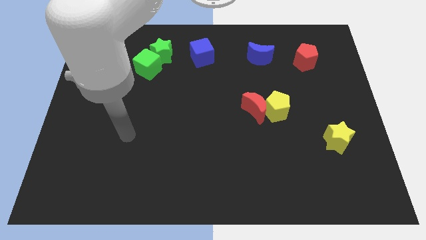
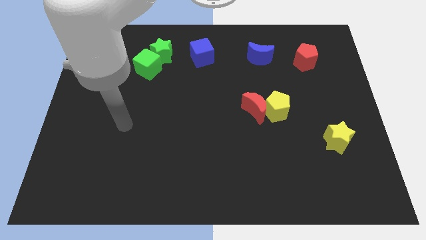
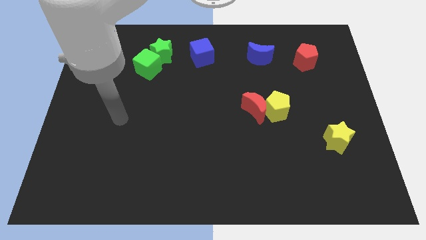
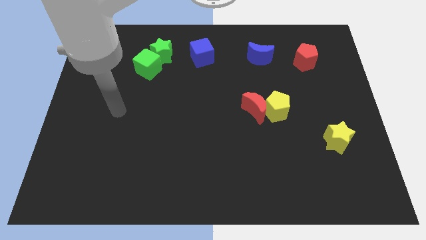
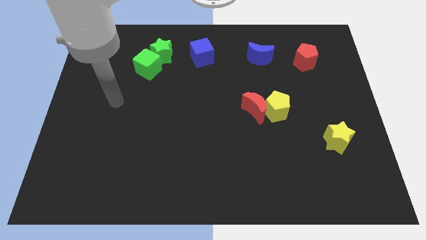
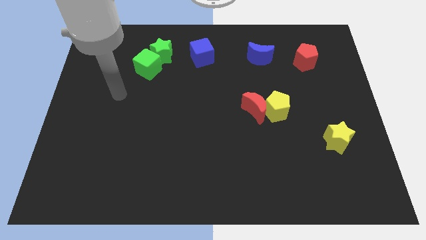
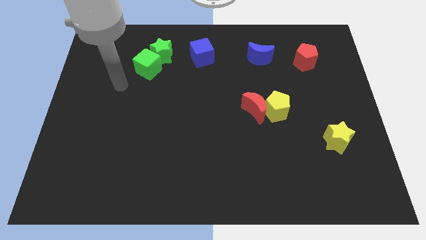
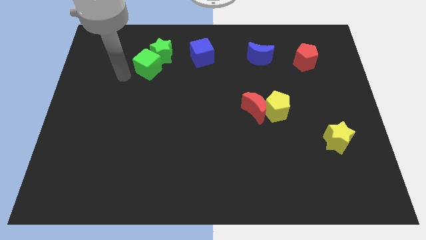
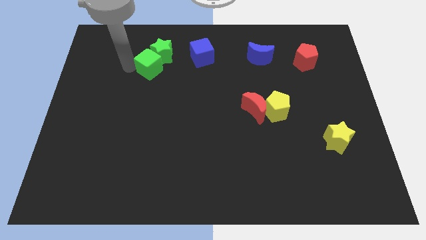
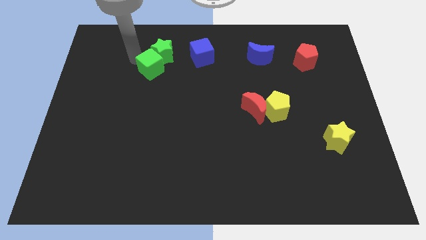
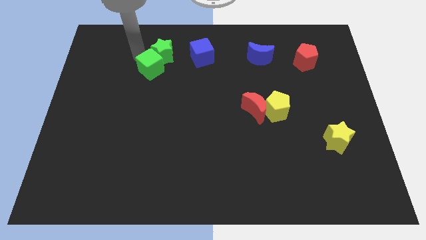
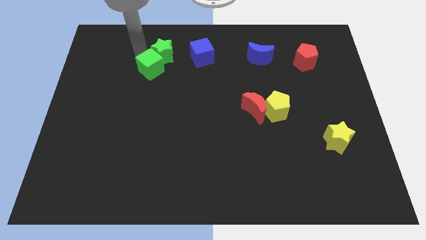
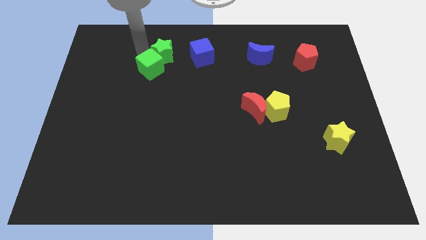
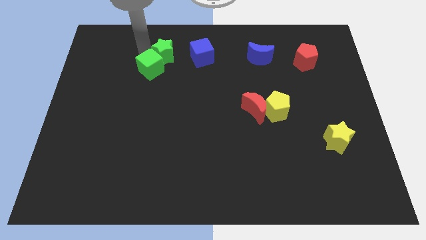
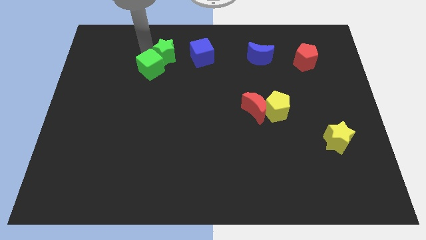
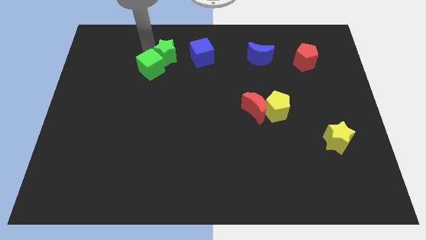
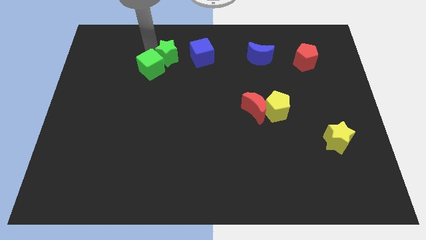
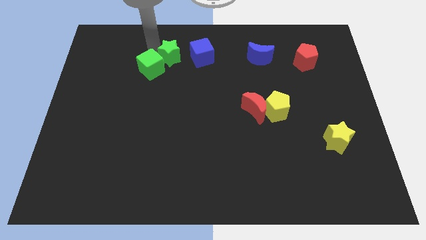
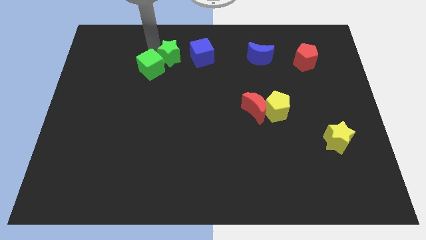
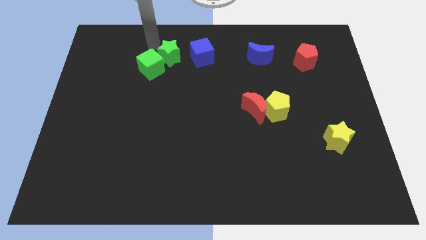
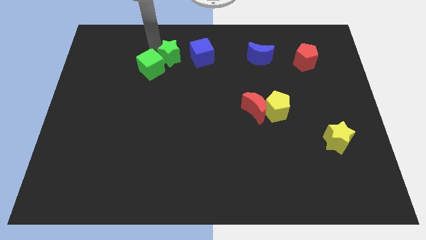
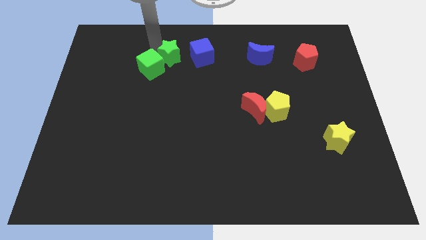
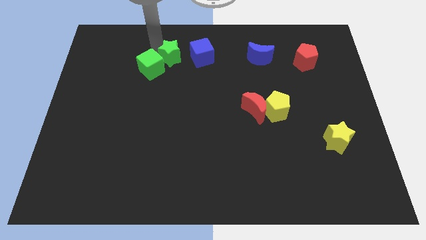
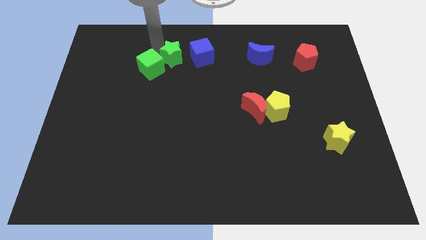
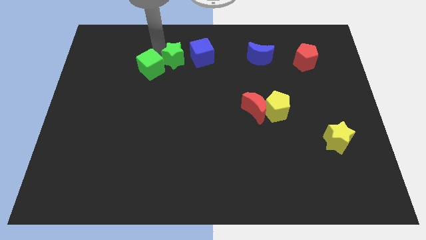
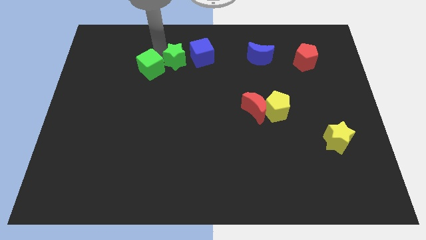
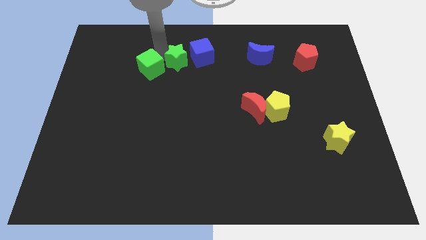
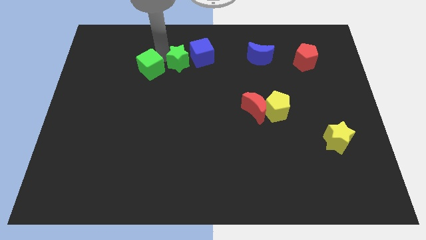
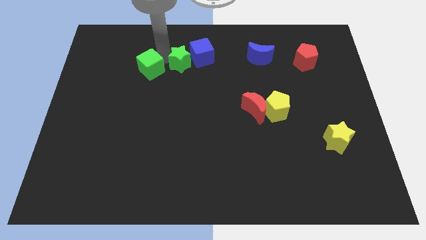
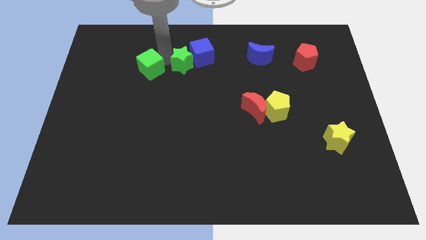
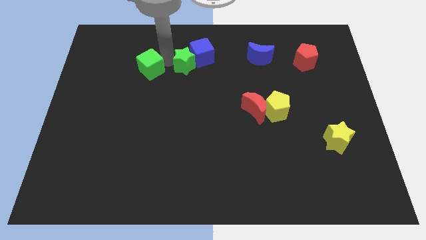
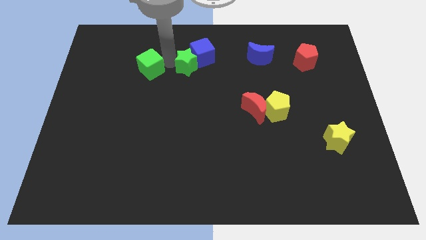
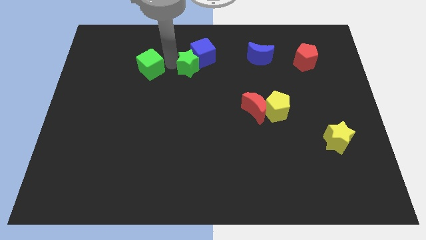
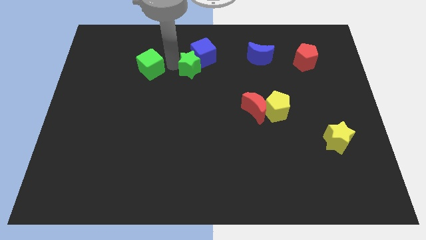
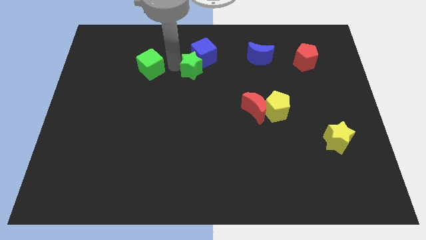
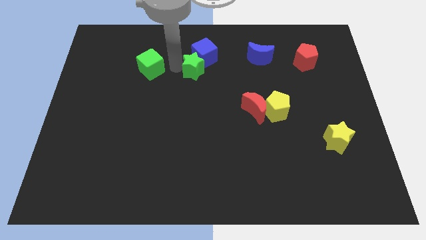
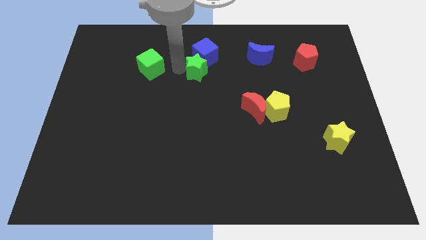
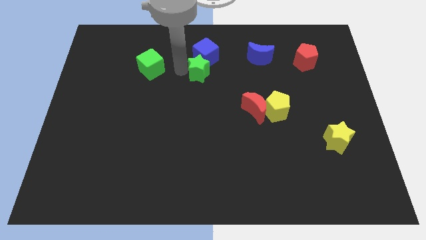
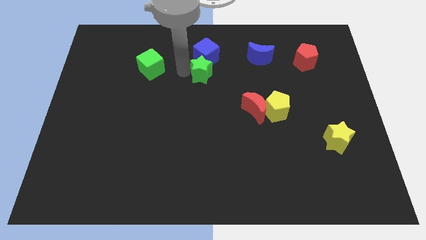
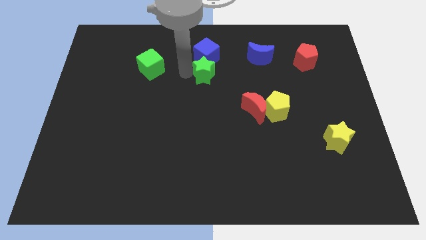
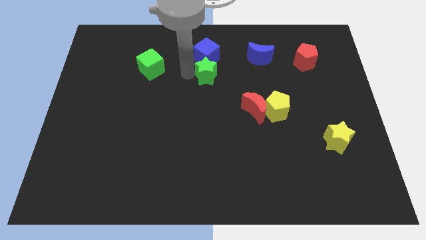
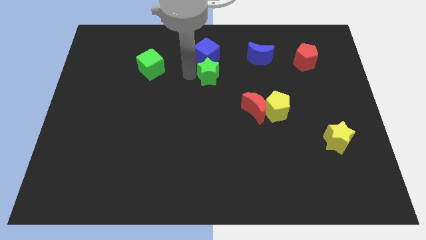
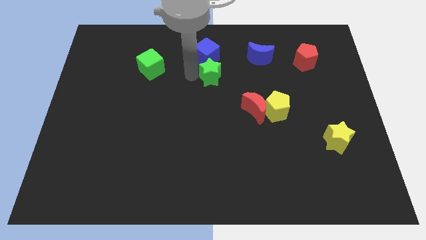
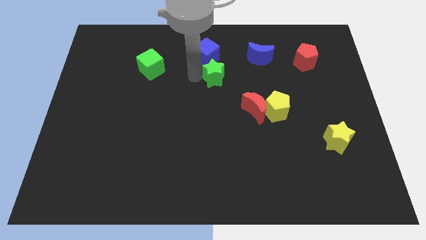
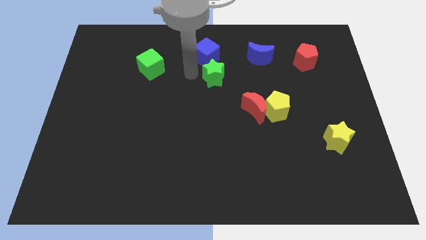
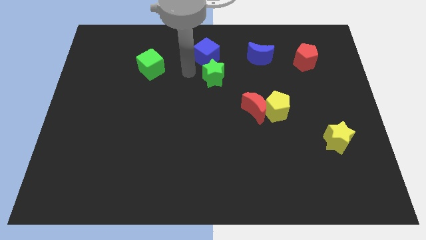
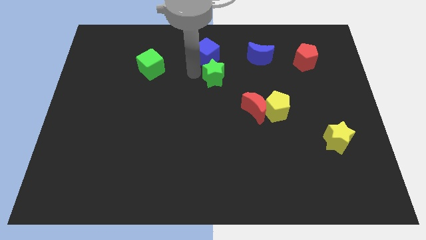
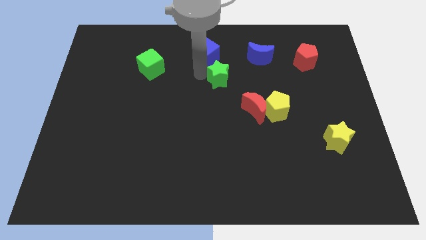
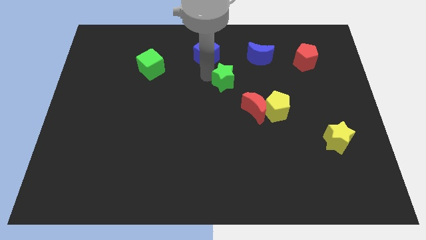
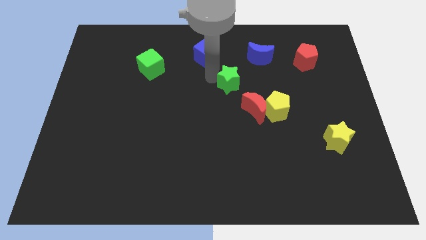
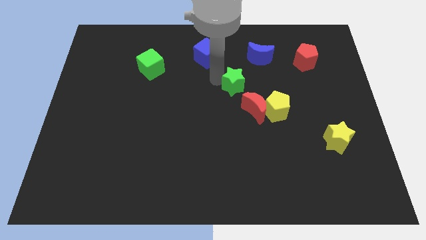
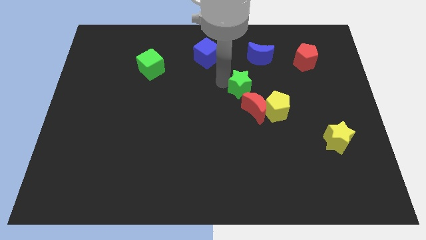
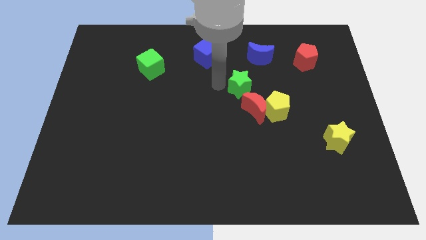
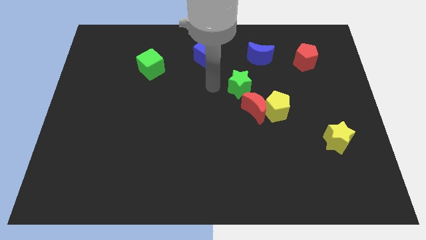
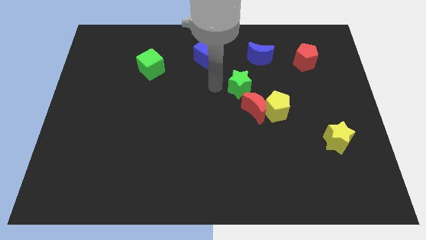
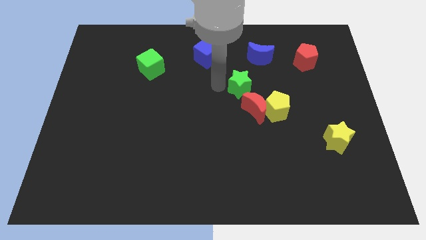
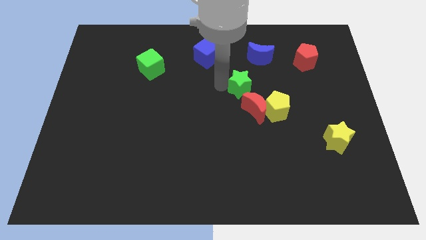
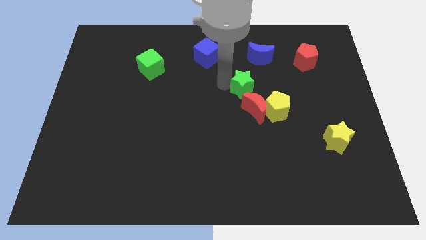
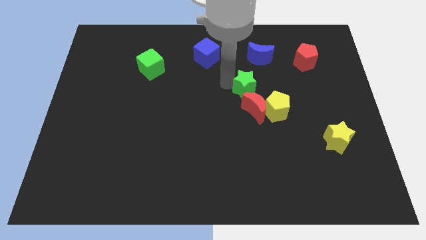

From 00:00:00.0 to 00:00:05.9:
push the green star to the bottom side of the blue moon

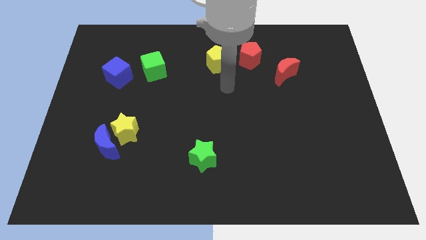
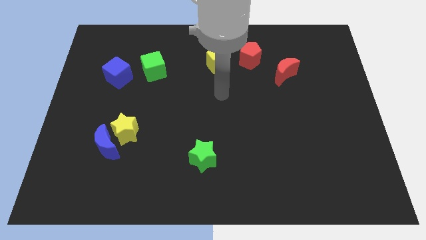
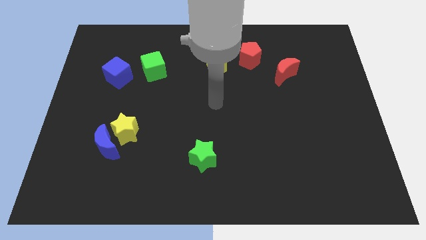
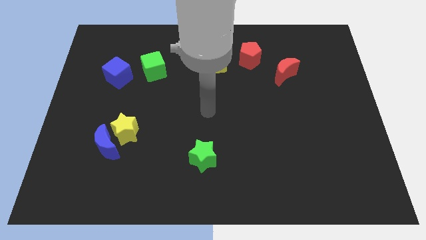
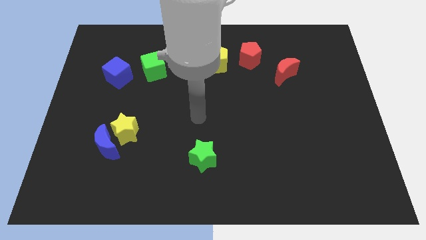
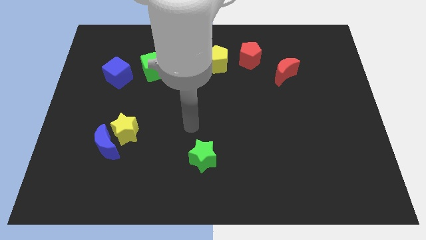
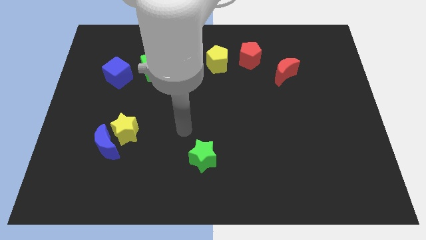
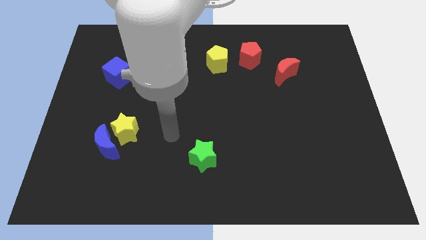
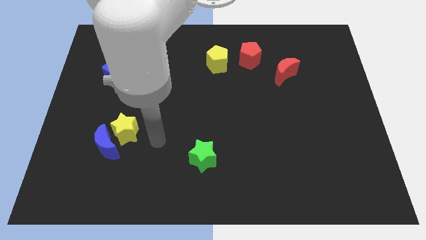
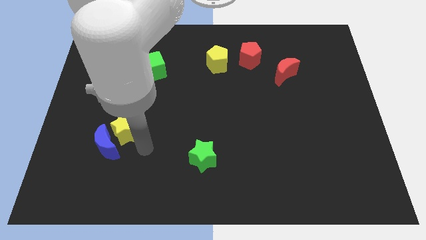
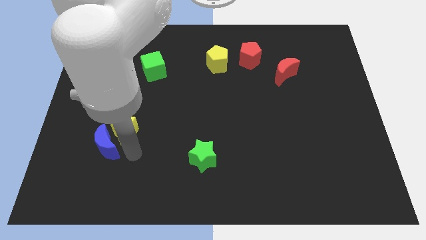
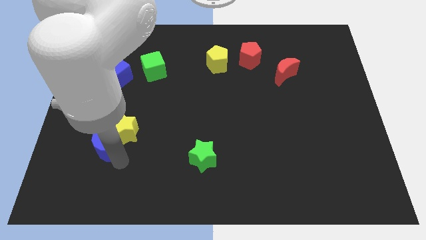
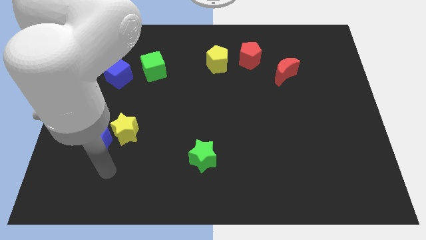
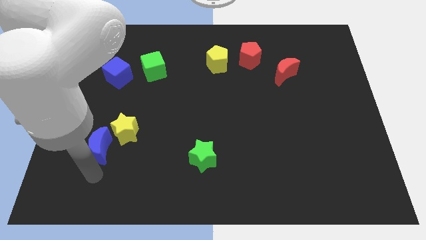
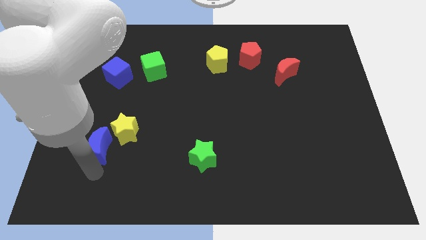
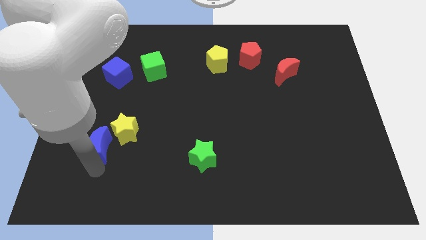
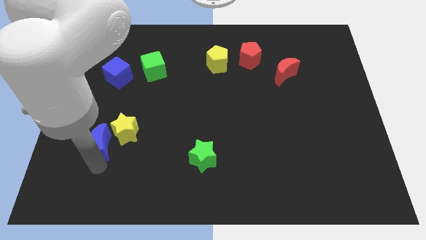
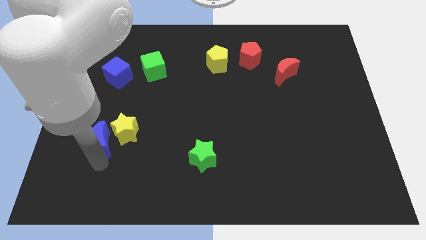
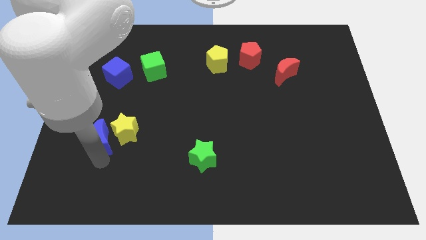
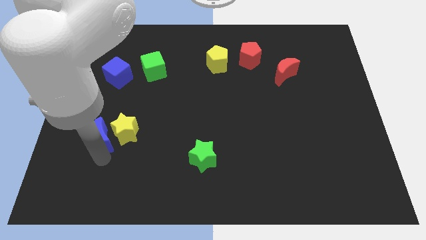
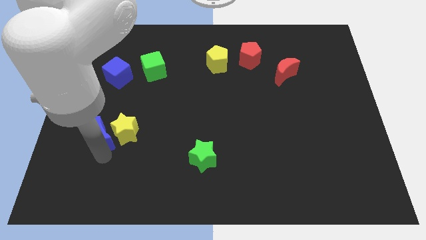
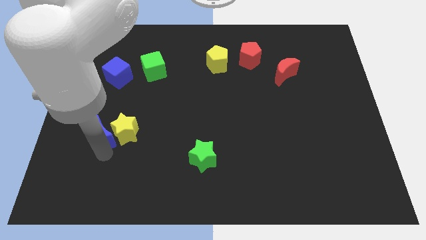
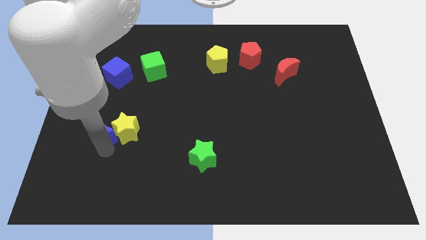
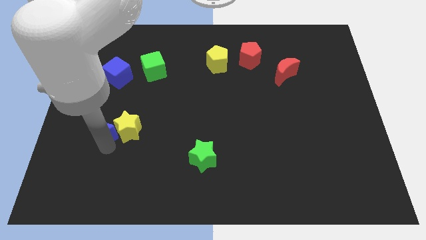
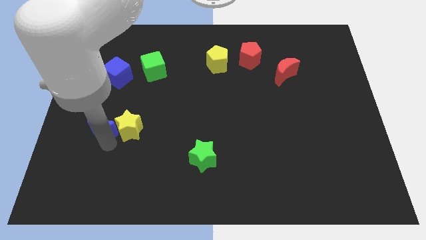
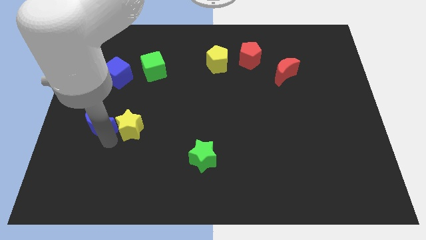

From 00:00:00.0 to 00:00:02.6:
move the blue moon below the blue cube
